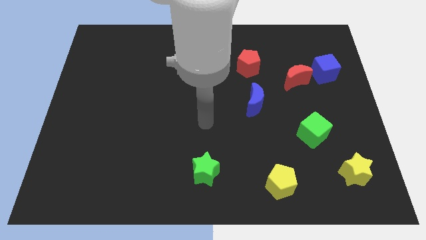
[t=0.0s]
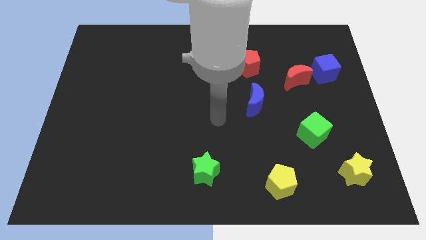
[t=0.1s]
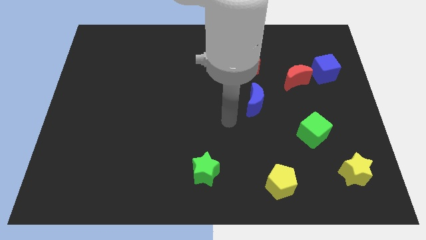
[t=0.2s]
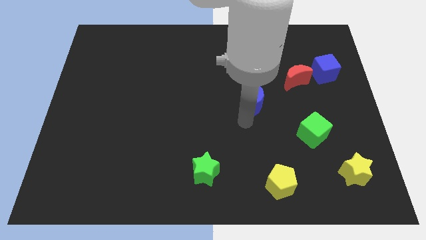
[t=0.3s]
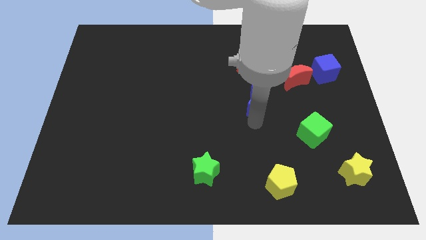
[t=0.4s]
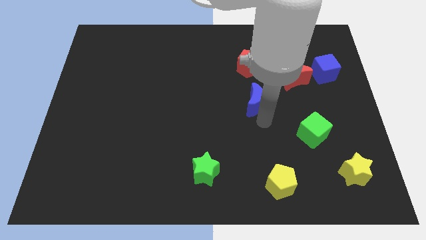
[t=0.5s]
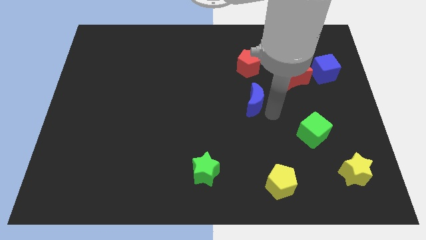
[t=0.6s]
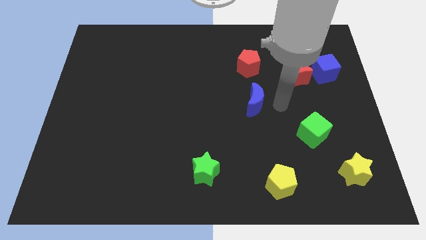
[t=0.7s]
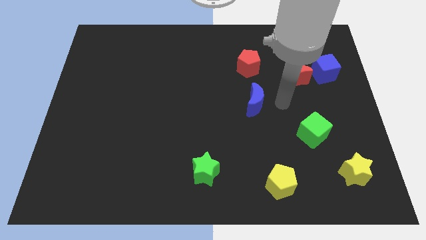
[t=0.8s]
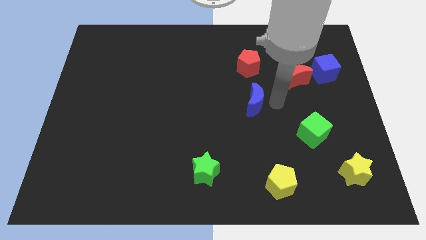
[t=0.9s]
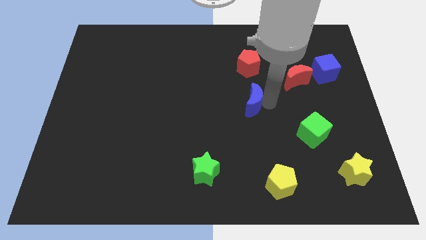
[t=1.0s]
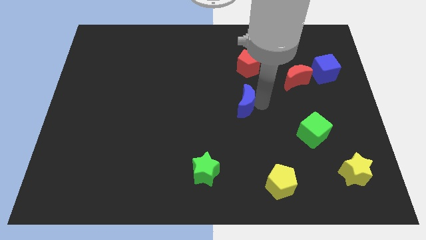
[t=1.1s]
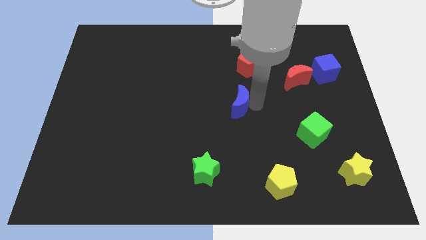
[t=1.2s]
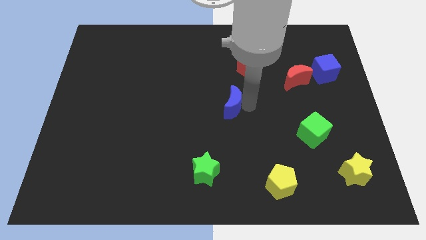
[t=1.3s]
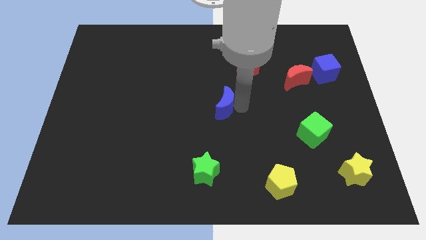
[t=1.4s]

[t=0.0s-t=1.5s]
slightly move the blue moon left

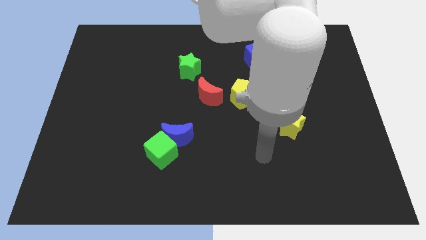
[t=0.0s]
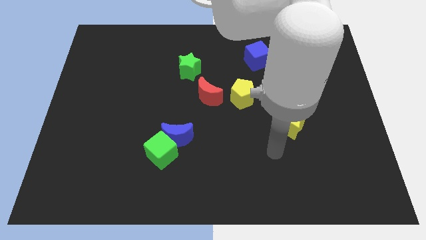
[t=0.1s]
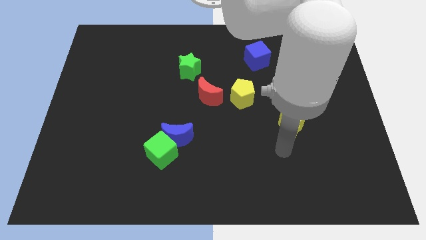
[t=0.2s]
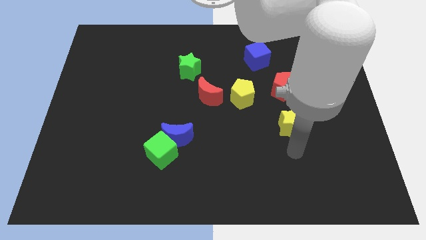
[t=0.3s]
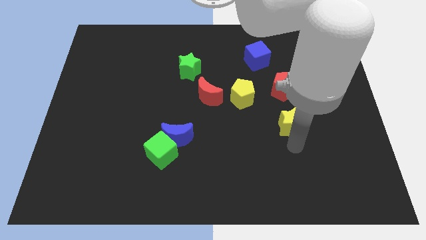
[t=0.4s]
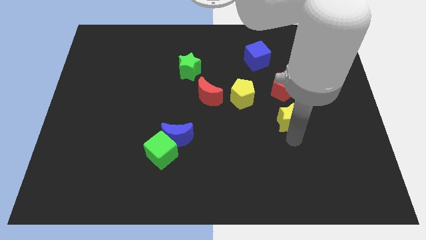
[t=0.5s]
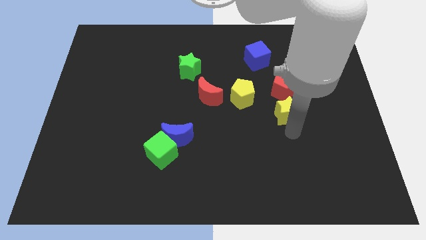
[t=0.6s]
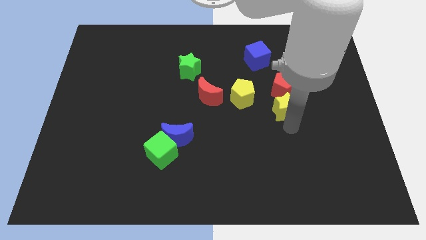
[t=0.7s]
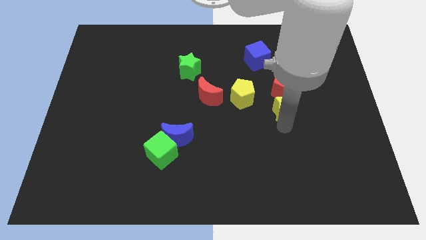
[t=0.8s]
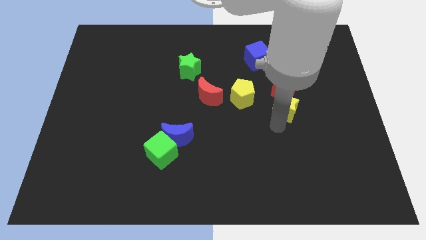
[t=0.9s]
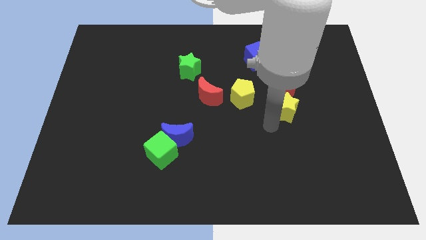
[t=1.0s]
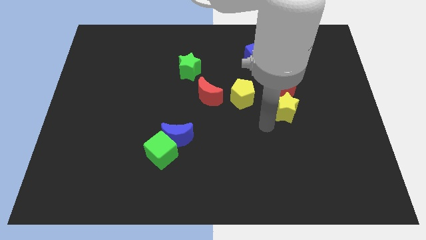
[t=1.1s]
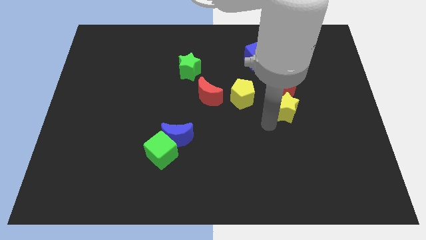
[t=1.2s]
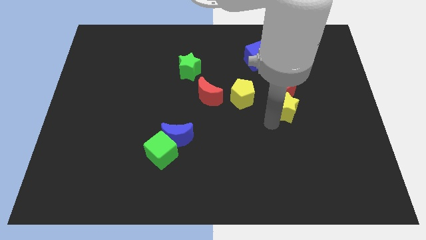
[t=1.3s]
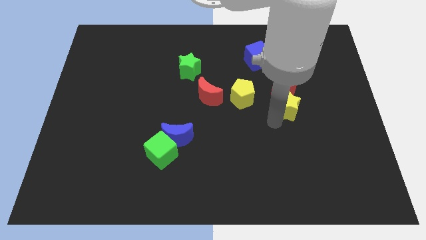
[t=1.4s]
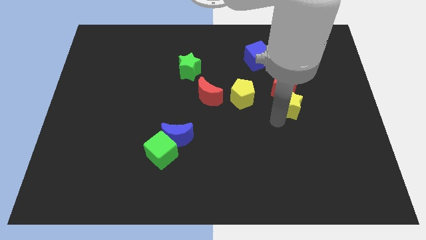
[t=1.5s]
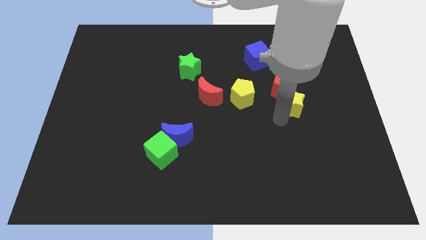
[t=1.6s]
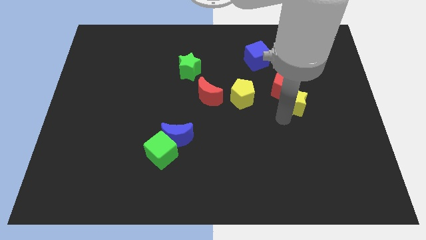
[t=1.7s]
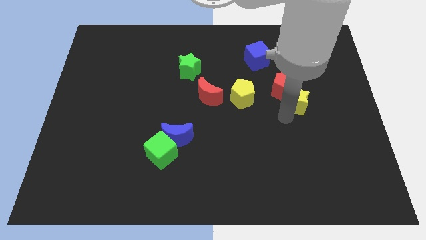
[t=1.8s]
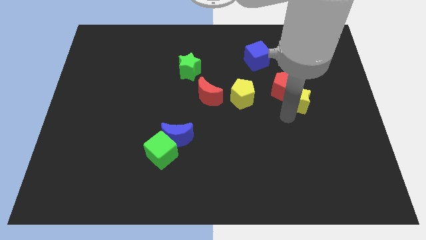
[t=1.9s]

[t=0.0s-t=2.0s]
push the yellow star a bit upwards

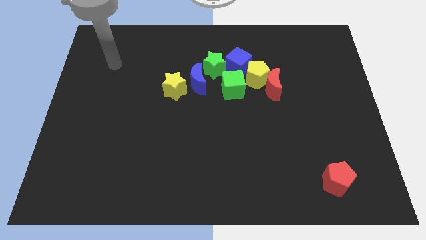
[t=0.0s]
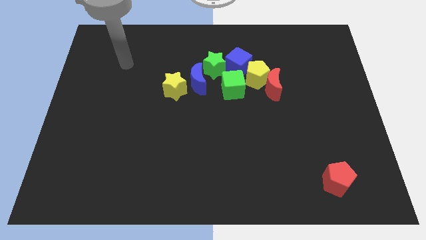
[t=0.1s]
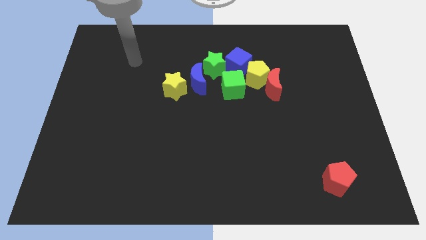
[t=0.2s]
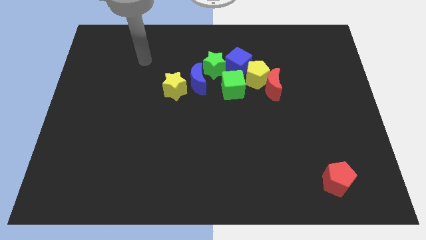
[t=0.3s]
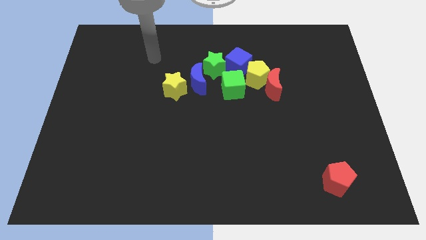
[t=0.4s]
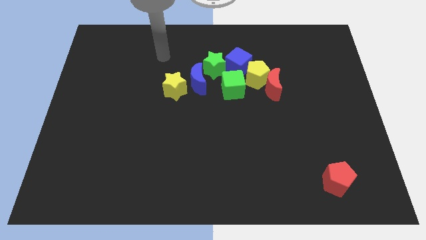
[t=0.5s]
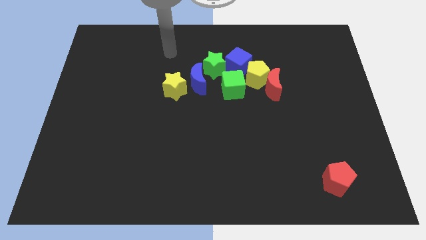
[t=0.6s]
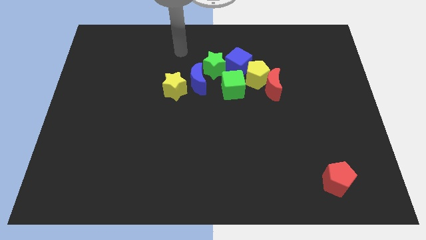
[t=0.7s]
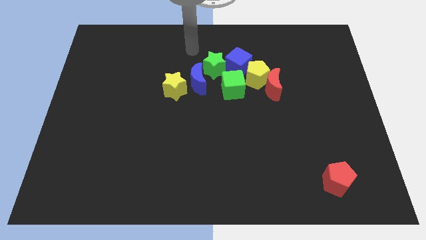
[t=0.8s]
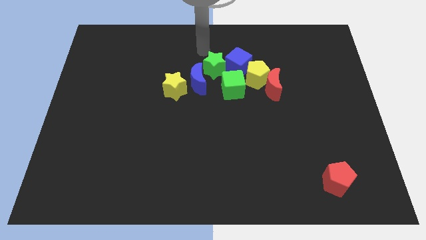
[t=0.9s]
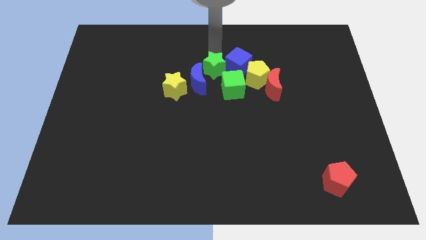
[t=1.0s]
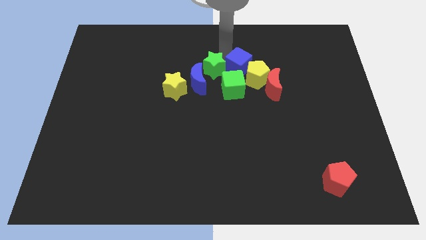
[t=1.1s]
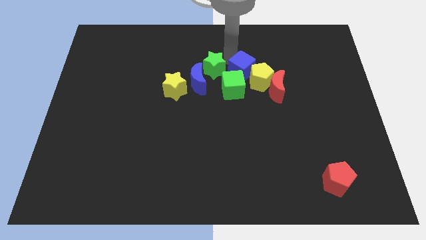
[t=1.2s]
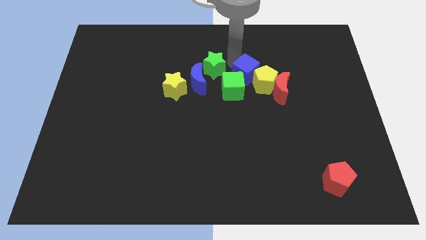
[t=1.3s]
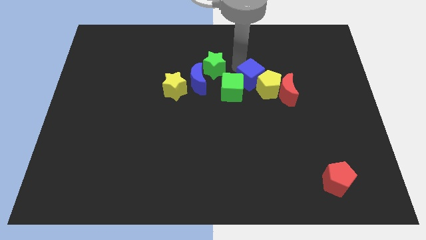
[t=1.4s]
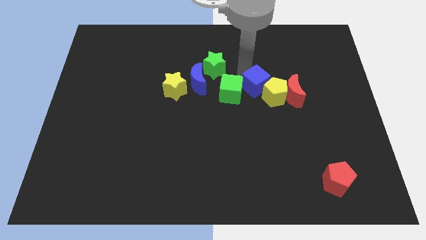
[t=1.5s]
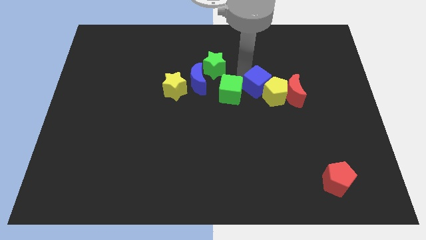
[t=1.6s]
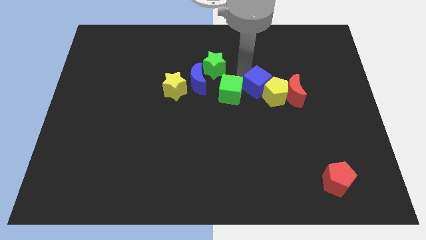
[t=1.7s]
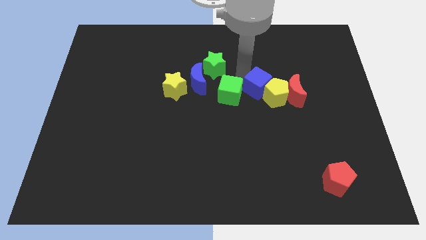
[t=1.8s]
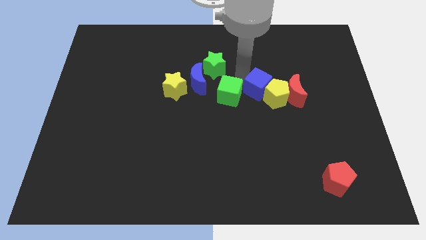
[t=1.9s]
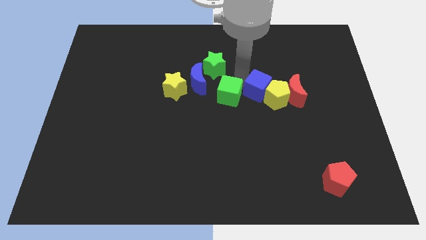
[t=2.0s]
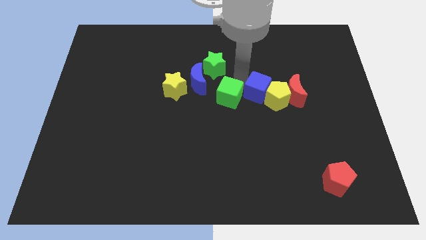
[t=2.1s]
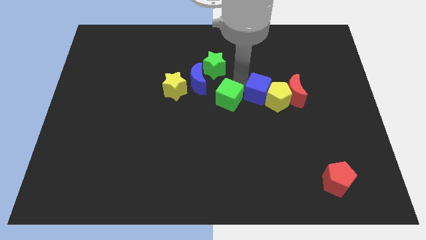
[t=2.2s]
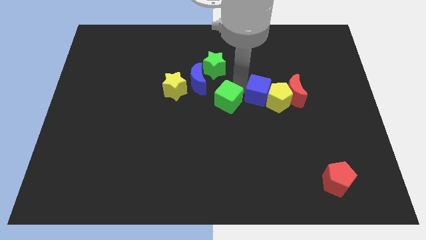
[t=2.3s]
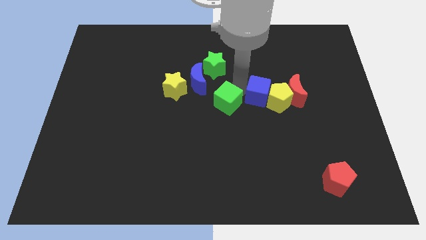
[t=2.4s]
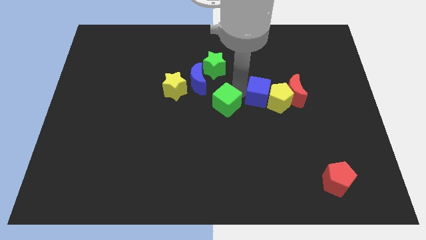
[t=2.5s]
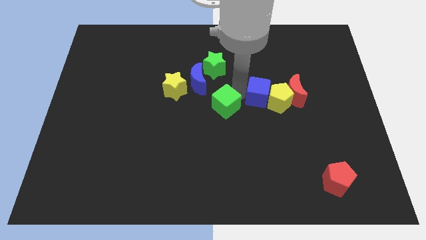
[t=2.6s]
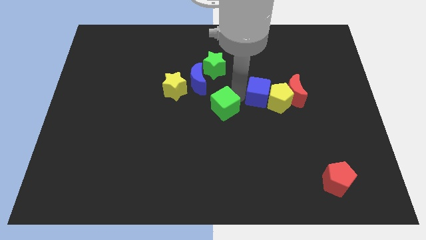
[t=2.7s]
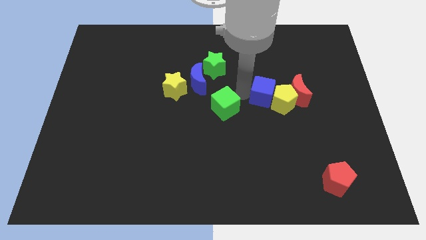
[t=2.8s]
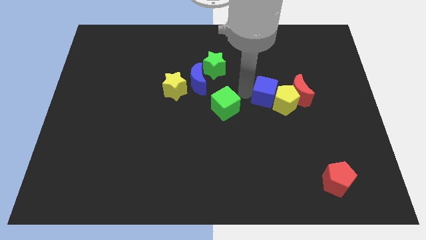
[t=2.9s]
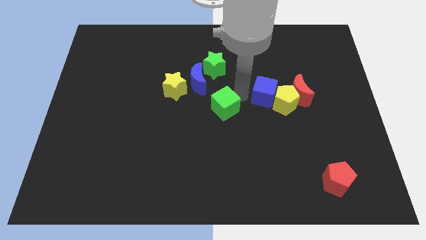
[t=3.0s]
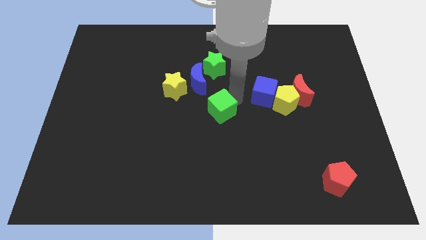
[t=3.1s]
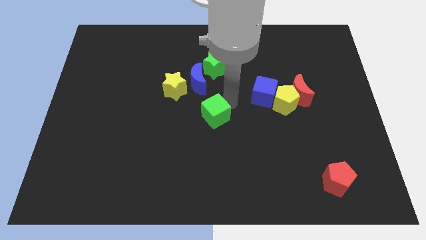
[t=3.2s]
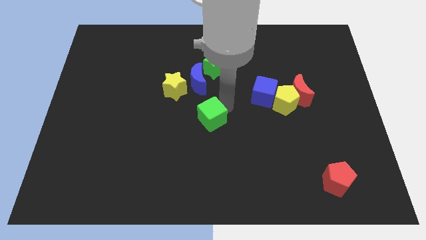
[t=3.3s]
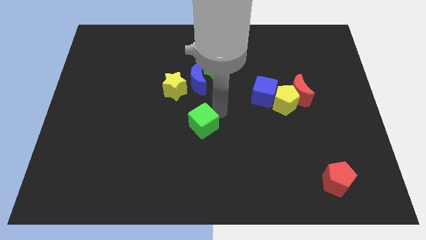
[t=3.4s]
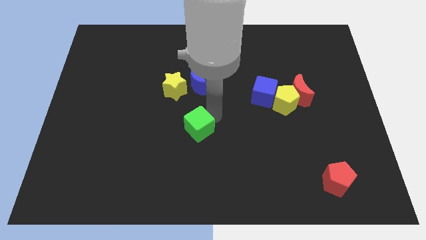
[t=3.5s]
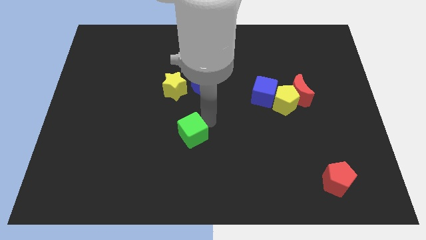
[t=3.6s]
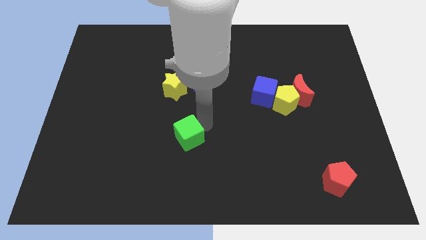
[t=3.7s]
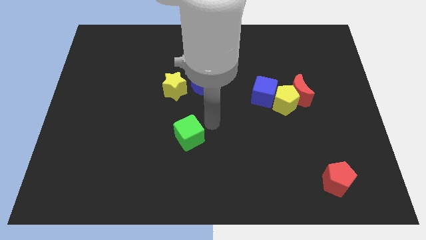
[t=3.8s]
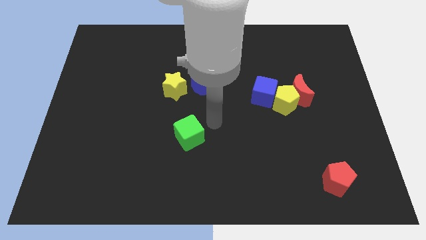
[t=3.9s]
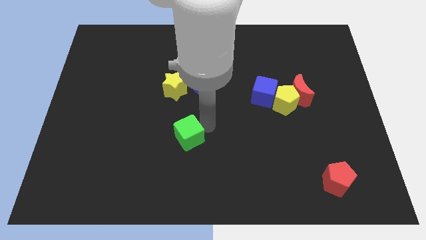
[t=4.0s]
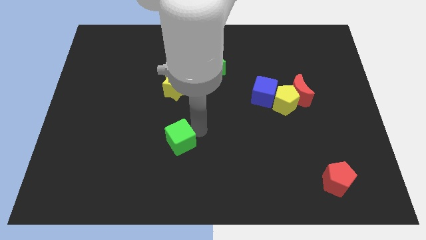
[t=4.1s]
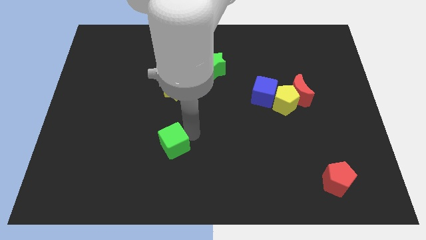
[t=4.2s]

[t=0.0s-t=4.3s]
slide the green cube downwards and to the left diagonally

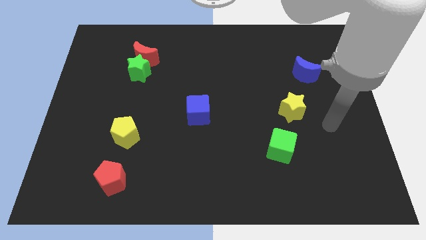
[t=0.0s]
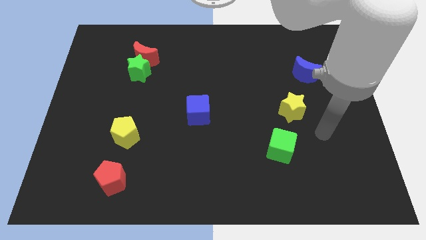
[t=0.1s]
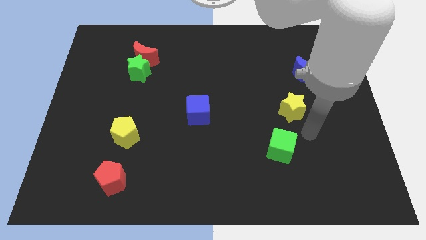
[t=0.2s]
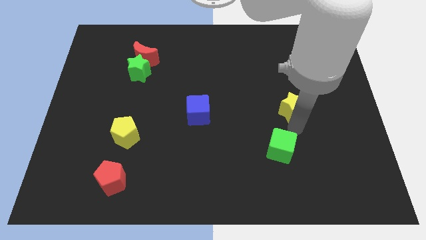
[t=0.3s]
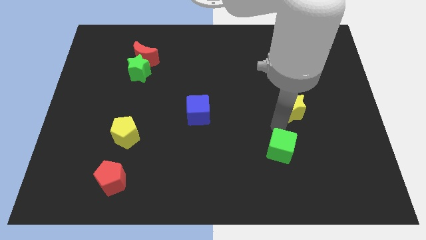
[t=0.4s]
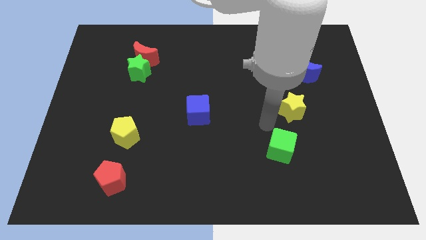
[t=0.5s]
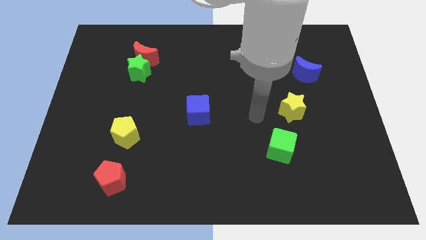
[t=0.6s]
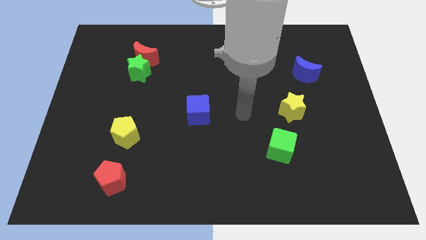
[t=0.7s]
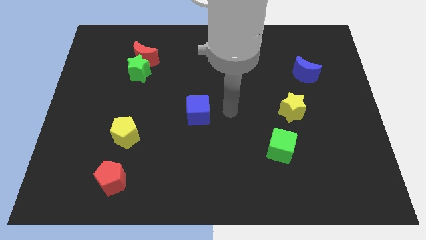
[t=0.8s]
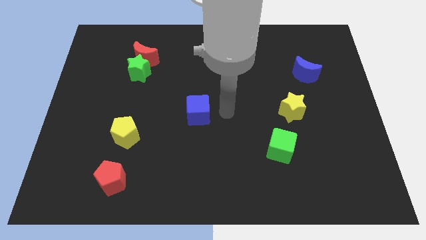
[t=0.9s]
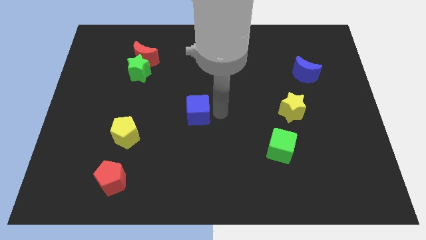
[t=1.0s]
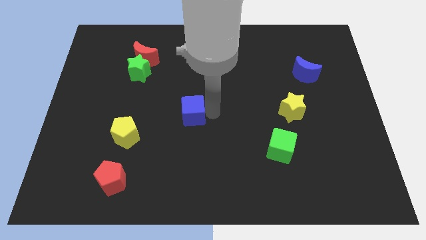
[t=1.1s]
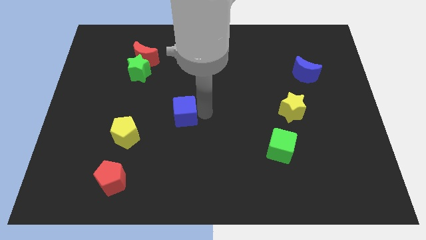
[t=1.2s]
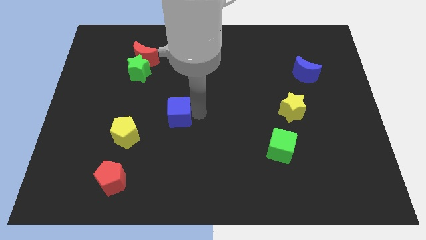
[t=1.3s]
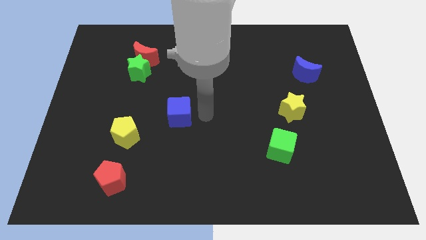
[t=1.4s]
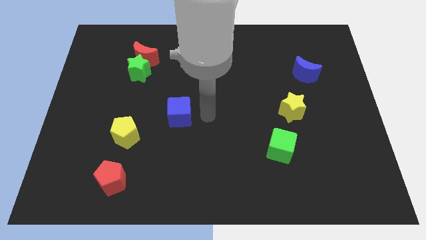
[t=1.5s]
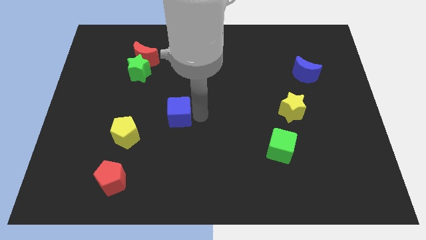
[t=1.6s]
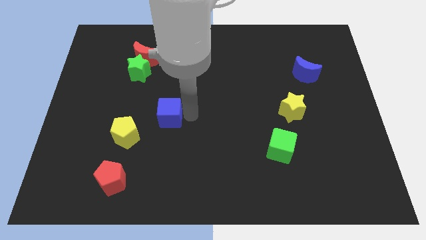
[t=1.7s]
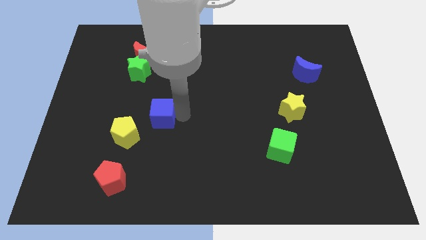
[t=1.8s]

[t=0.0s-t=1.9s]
move the blue cube left somewhat
